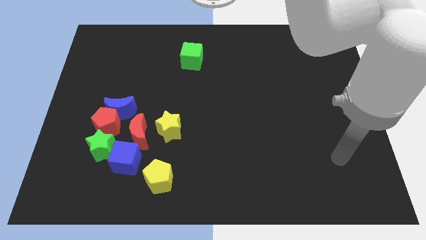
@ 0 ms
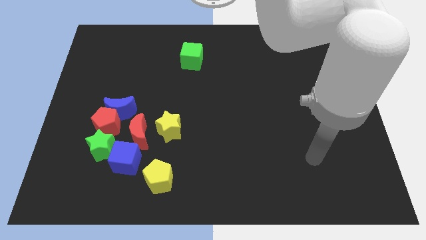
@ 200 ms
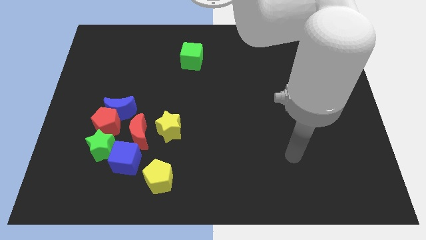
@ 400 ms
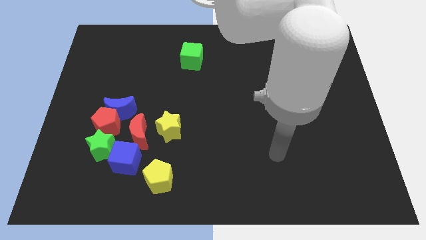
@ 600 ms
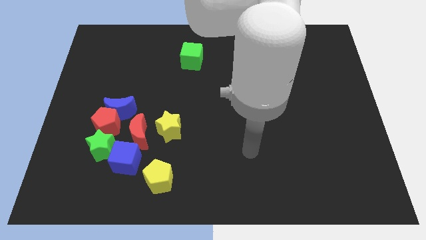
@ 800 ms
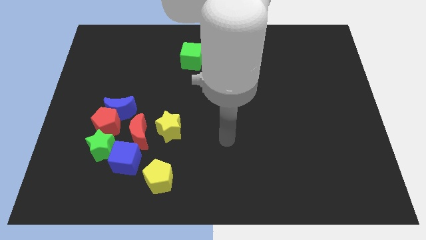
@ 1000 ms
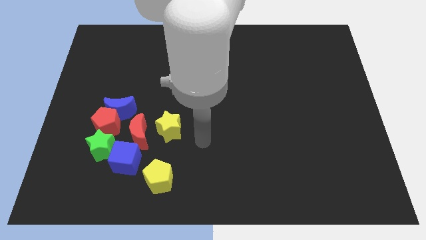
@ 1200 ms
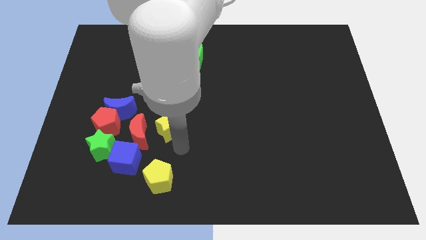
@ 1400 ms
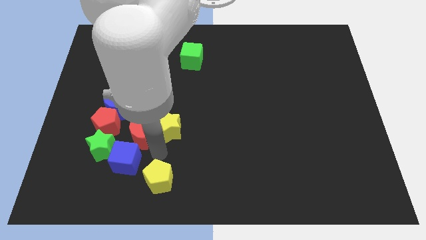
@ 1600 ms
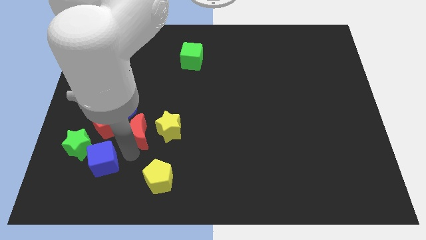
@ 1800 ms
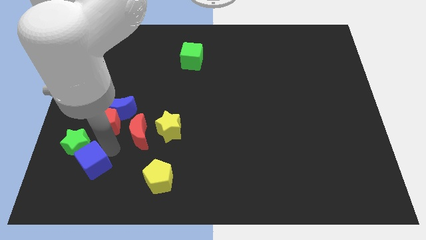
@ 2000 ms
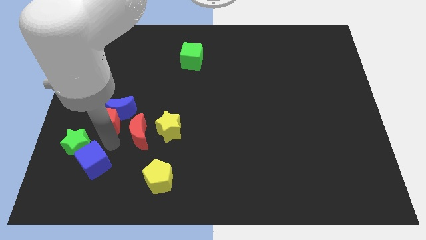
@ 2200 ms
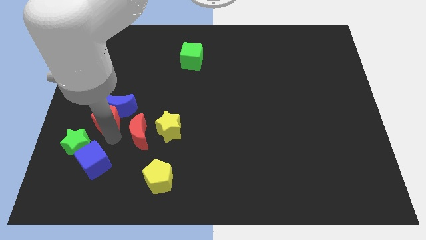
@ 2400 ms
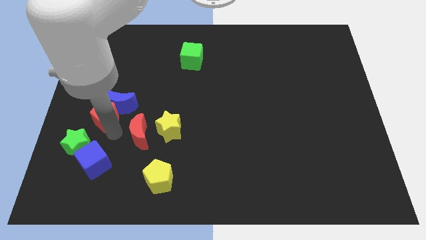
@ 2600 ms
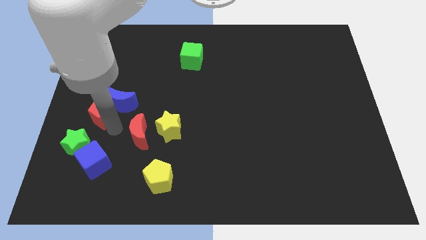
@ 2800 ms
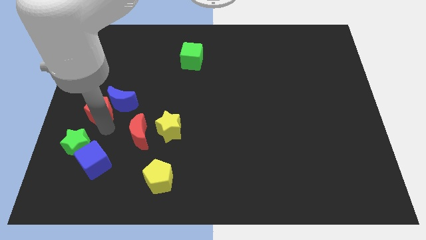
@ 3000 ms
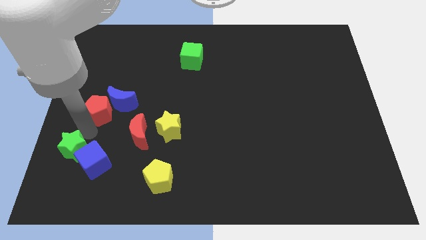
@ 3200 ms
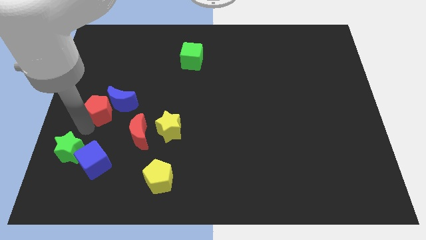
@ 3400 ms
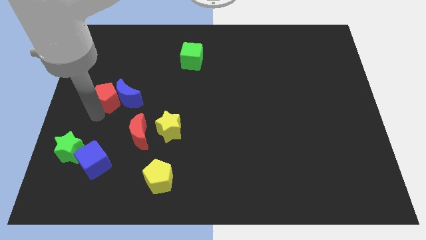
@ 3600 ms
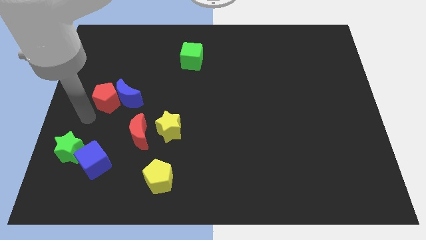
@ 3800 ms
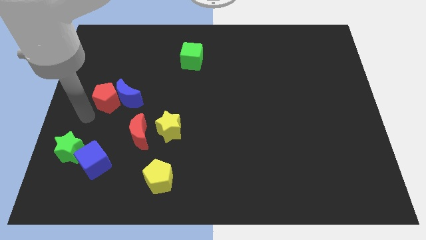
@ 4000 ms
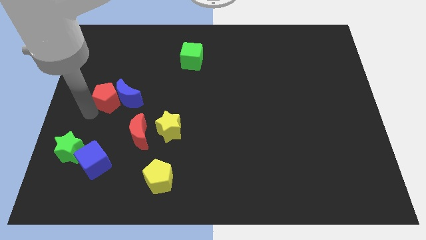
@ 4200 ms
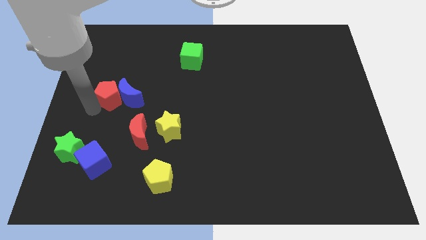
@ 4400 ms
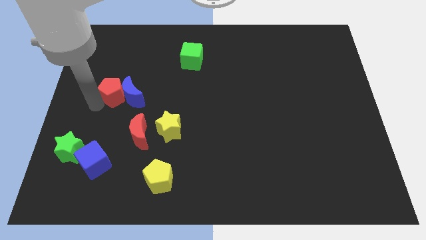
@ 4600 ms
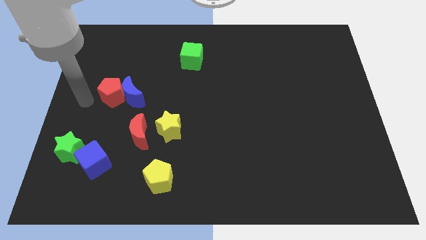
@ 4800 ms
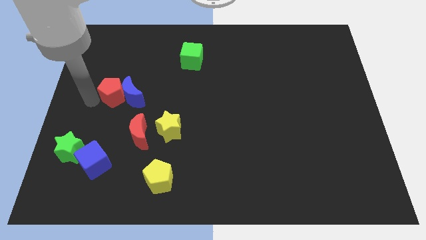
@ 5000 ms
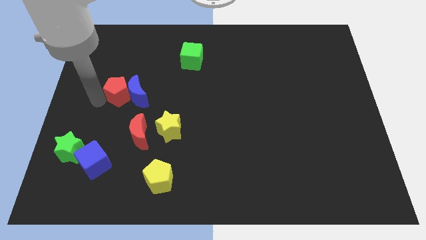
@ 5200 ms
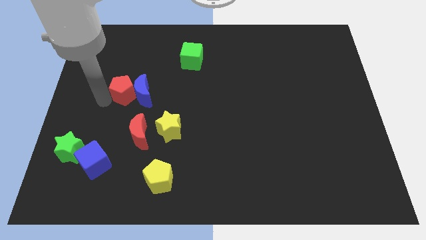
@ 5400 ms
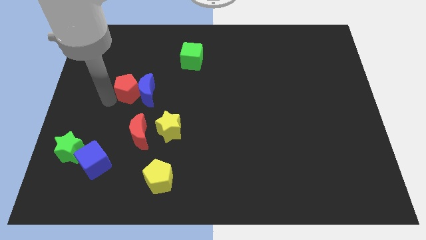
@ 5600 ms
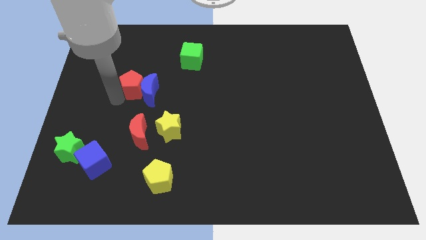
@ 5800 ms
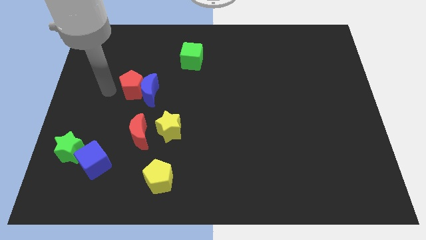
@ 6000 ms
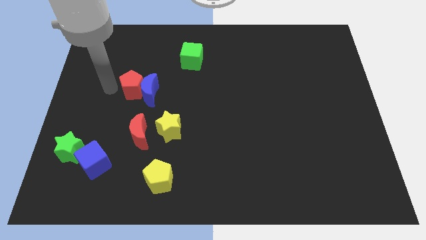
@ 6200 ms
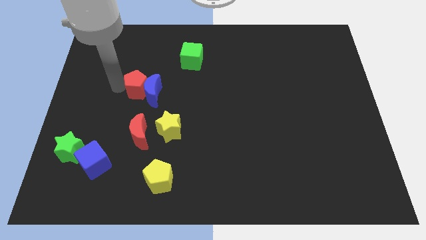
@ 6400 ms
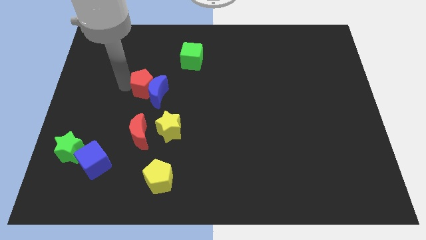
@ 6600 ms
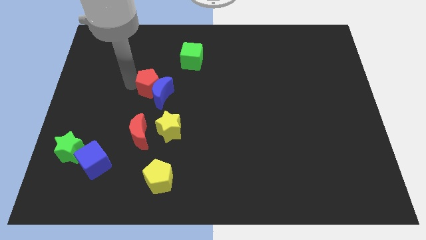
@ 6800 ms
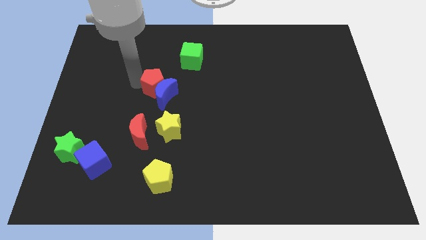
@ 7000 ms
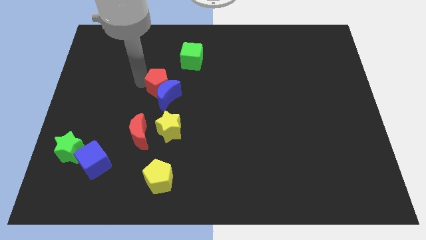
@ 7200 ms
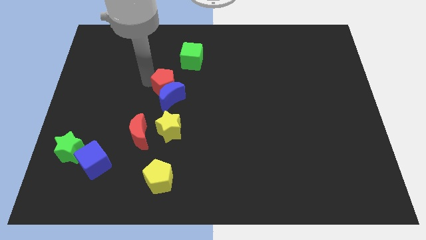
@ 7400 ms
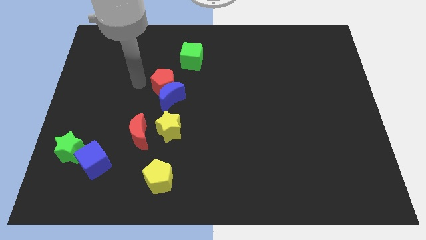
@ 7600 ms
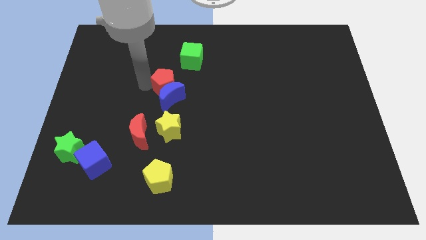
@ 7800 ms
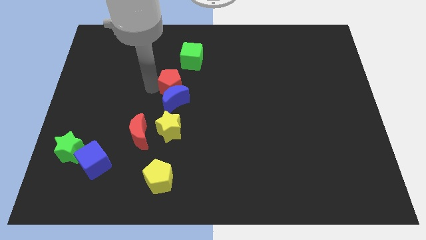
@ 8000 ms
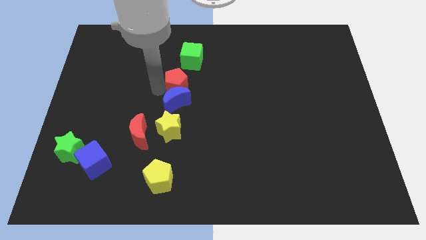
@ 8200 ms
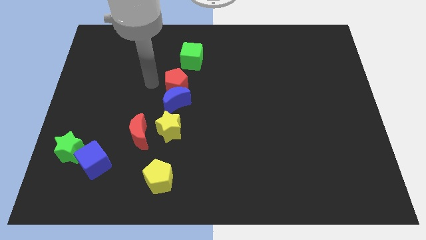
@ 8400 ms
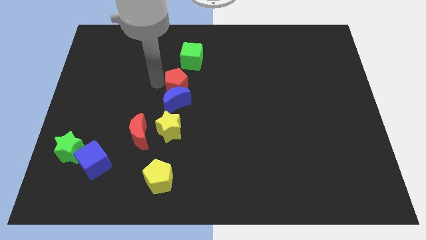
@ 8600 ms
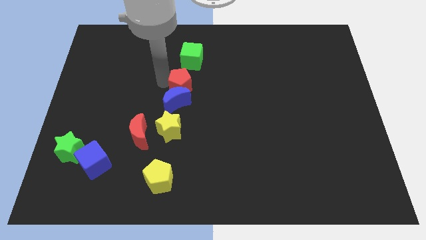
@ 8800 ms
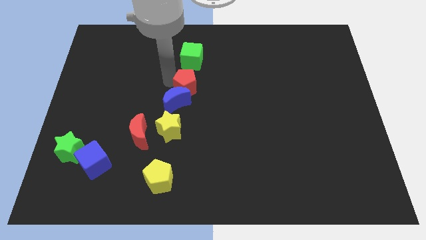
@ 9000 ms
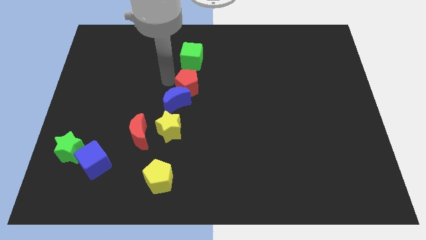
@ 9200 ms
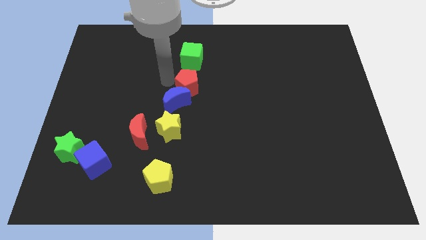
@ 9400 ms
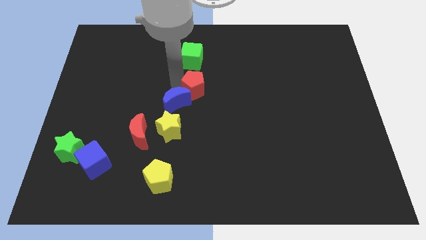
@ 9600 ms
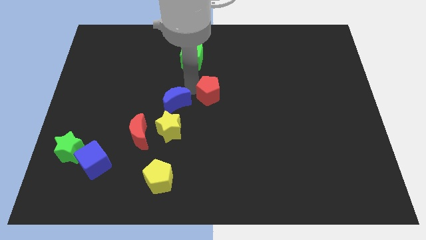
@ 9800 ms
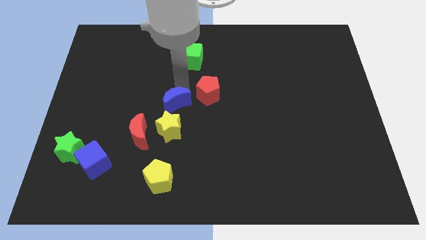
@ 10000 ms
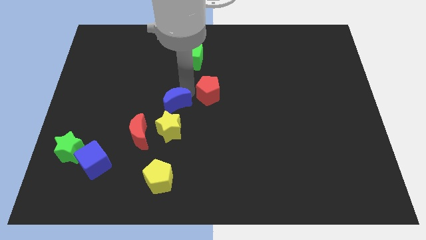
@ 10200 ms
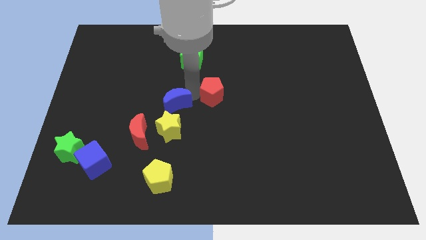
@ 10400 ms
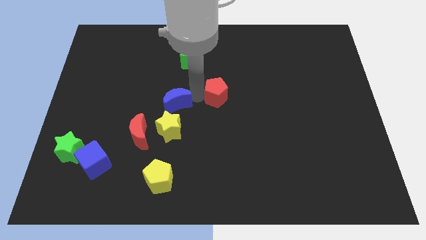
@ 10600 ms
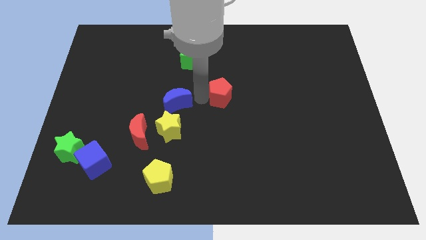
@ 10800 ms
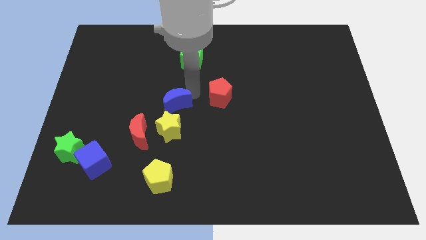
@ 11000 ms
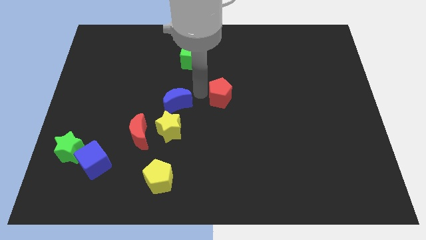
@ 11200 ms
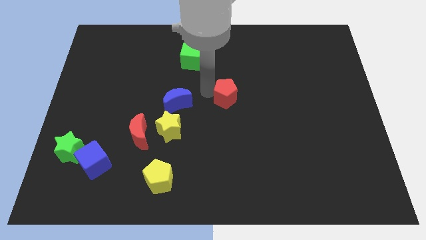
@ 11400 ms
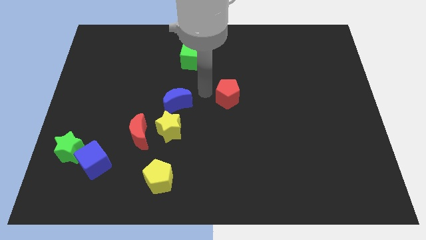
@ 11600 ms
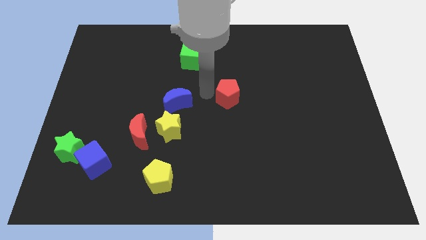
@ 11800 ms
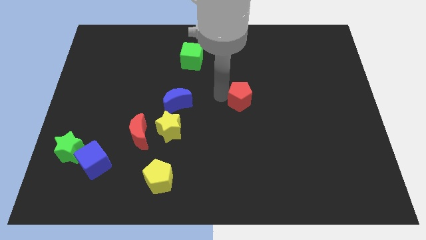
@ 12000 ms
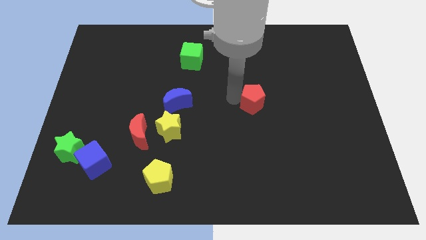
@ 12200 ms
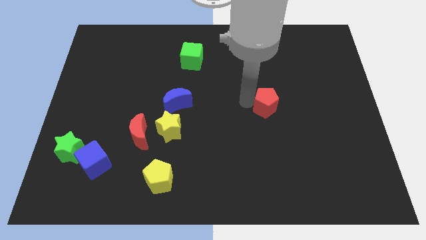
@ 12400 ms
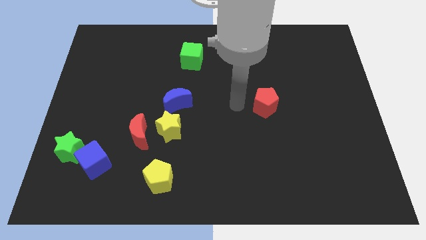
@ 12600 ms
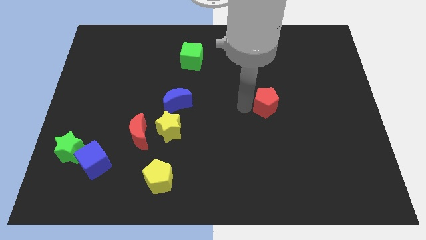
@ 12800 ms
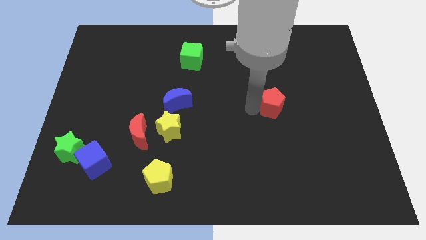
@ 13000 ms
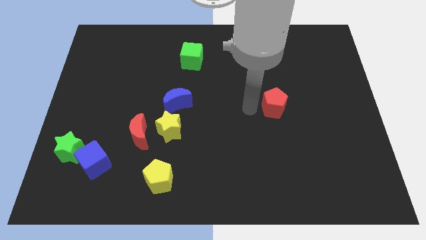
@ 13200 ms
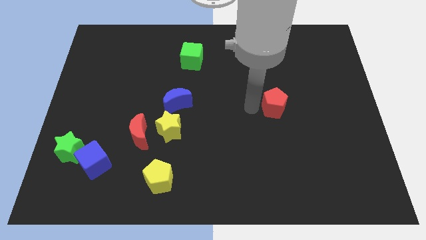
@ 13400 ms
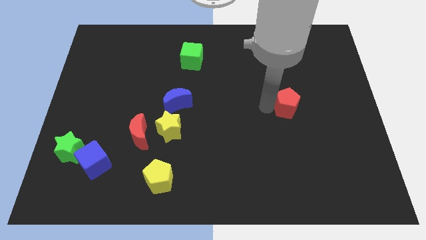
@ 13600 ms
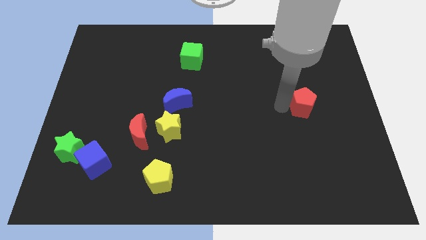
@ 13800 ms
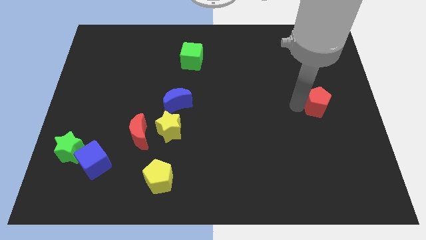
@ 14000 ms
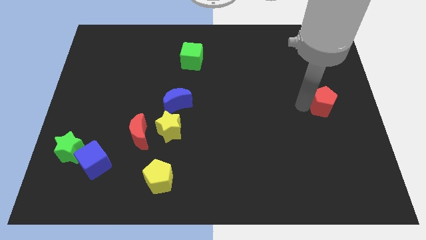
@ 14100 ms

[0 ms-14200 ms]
push the red pentagon to the right side of the board
